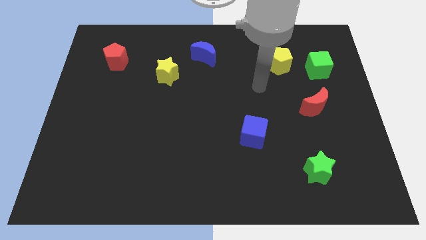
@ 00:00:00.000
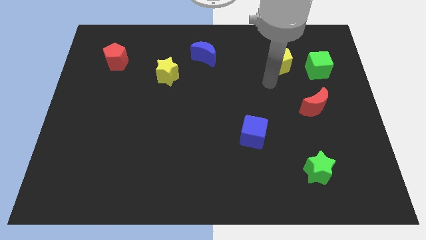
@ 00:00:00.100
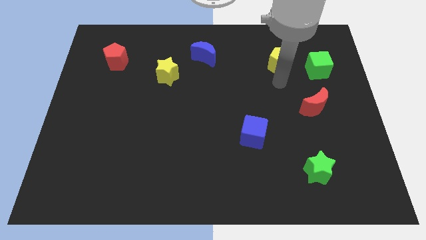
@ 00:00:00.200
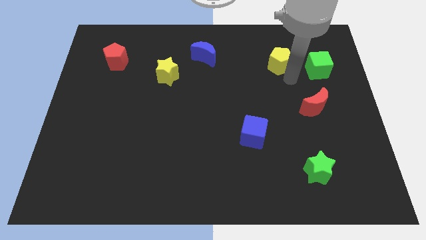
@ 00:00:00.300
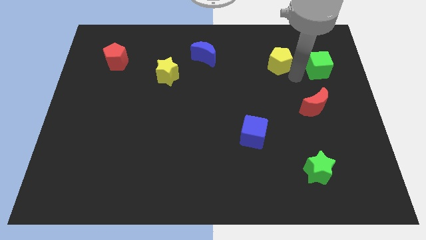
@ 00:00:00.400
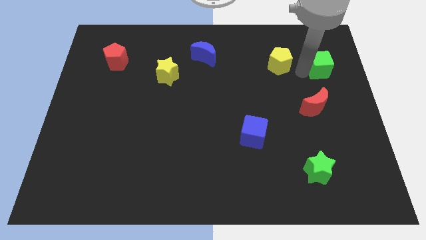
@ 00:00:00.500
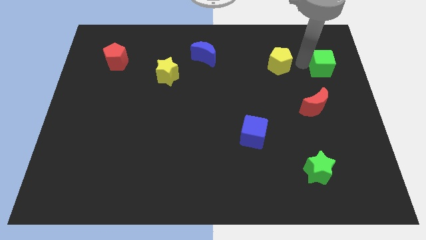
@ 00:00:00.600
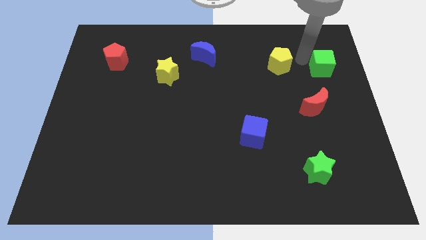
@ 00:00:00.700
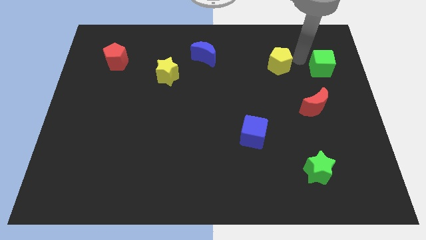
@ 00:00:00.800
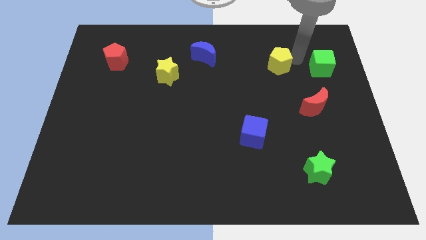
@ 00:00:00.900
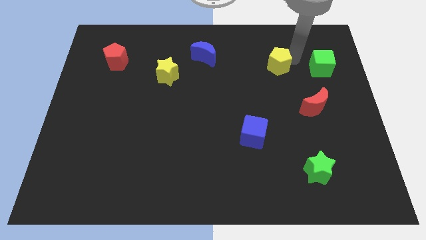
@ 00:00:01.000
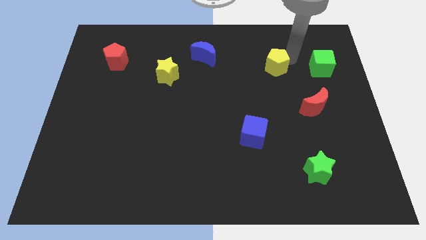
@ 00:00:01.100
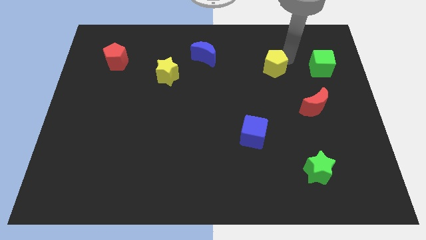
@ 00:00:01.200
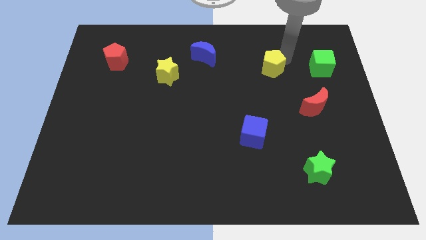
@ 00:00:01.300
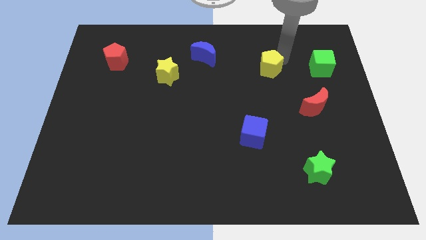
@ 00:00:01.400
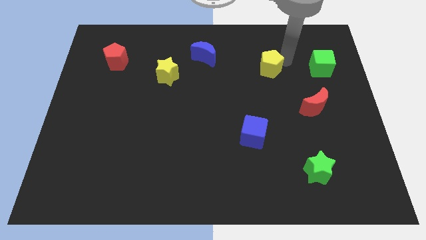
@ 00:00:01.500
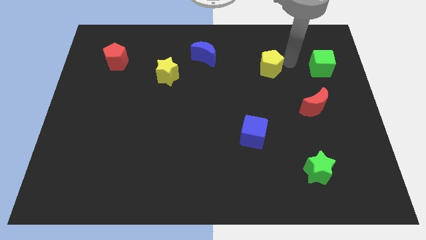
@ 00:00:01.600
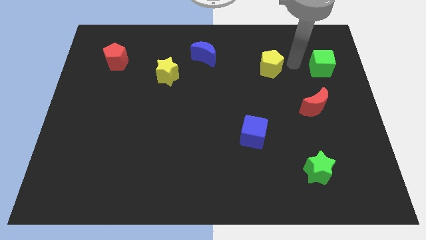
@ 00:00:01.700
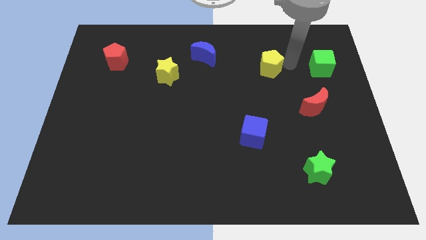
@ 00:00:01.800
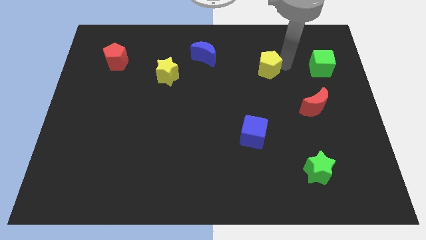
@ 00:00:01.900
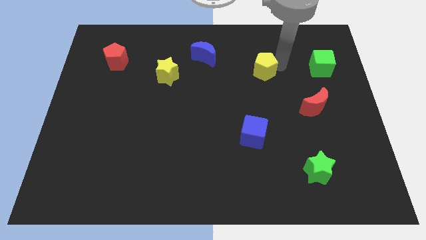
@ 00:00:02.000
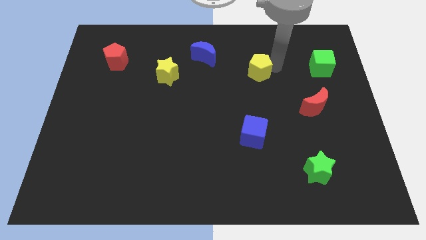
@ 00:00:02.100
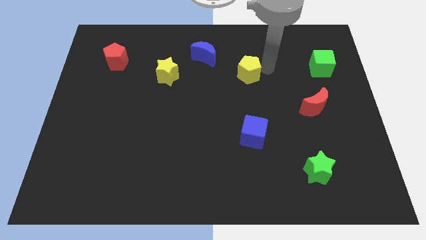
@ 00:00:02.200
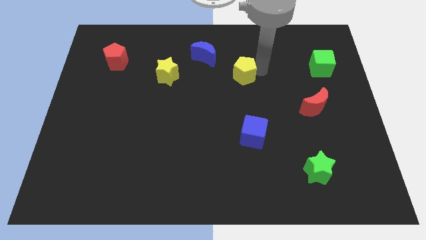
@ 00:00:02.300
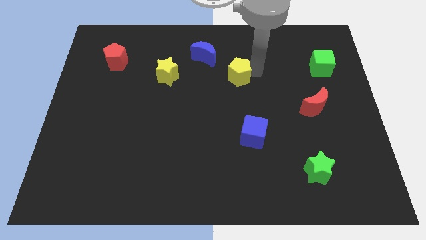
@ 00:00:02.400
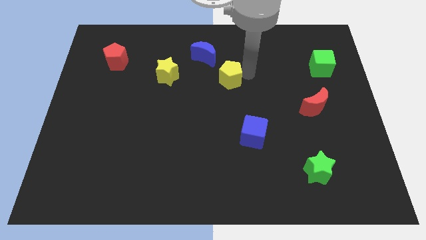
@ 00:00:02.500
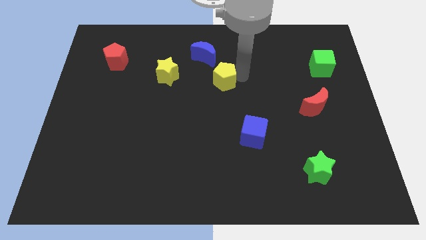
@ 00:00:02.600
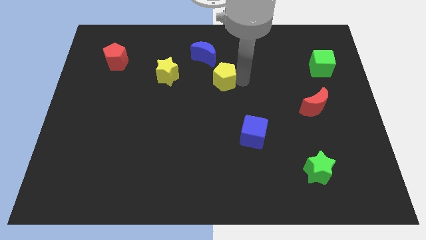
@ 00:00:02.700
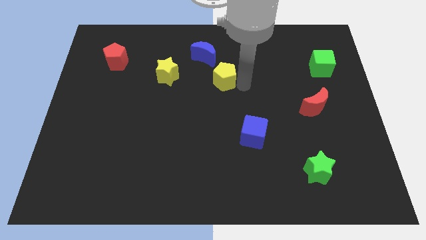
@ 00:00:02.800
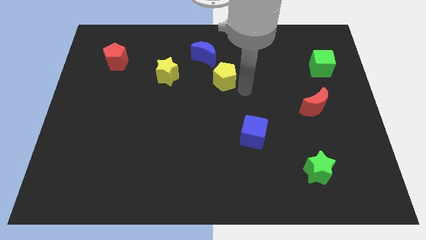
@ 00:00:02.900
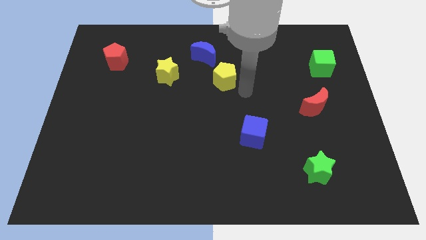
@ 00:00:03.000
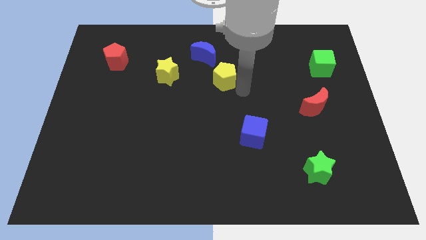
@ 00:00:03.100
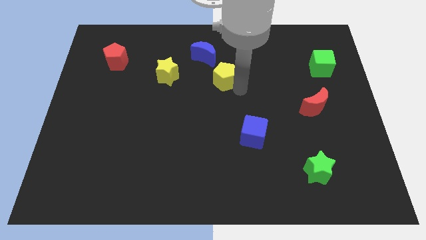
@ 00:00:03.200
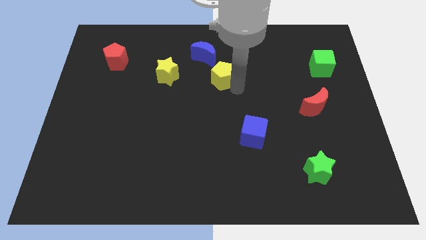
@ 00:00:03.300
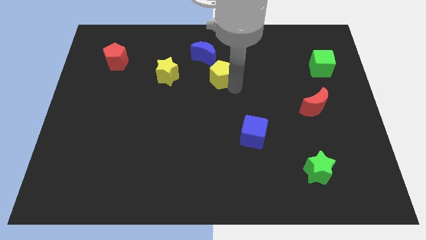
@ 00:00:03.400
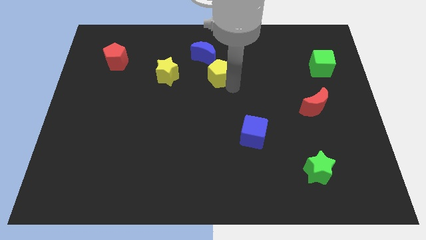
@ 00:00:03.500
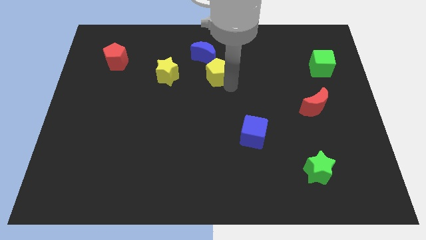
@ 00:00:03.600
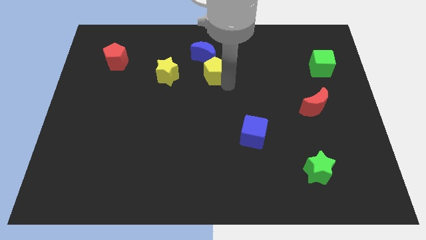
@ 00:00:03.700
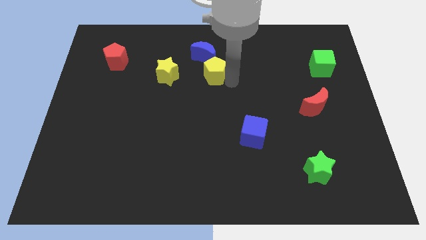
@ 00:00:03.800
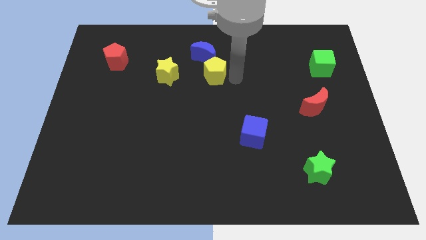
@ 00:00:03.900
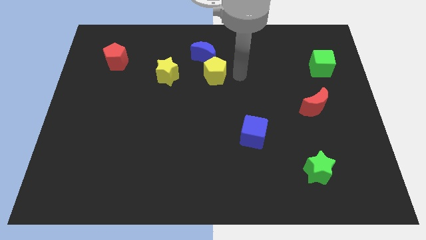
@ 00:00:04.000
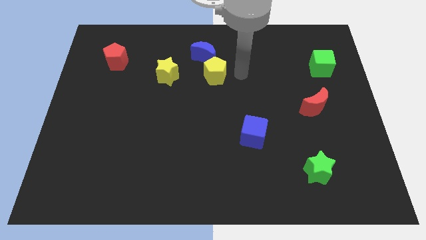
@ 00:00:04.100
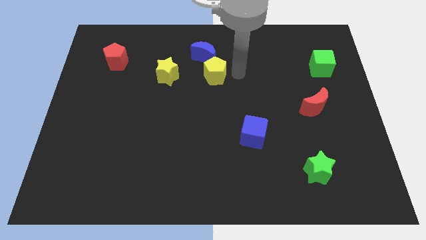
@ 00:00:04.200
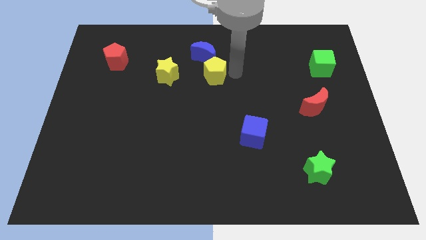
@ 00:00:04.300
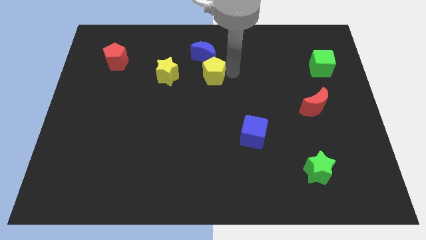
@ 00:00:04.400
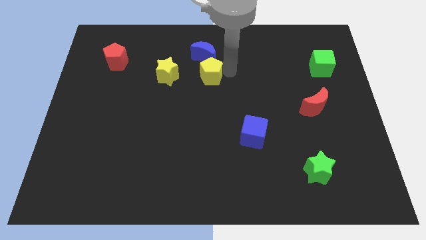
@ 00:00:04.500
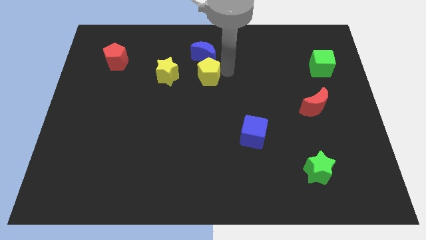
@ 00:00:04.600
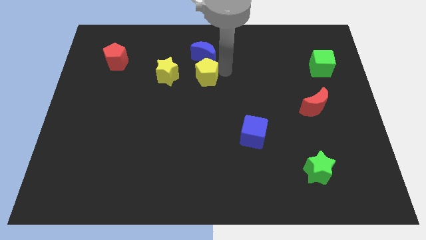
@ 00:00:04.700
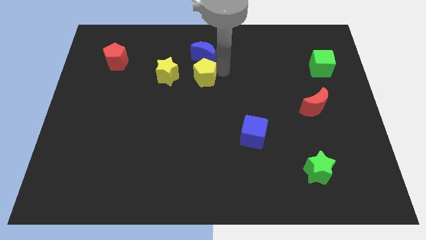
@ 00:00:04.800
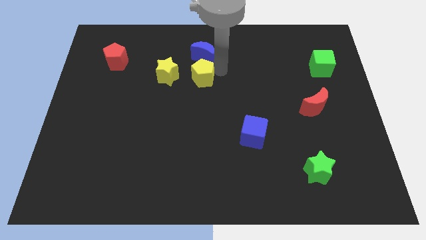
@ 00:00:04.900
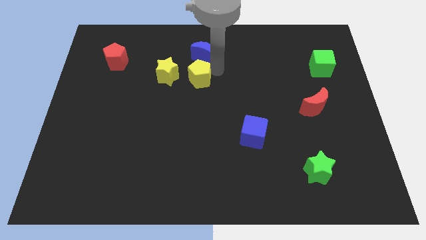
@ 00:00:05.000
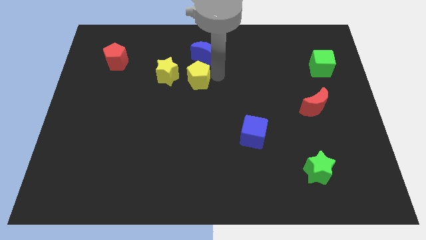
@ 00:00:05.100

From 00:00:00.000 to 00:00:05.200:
slide the yellow pentagon to the left

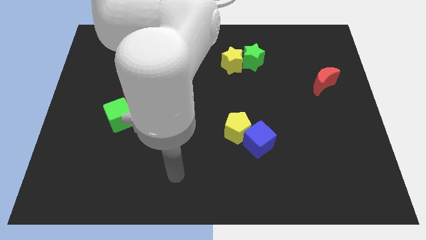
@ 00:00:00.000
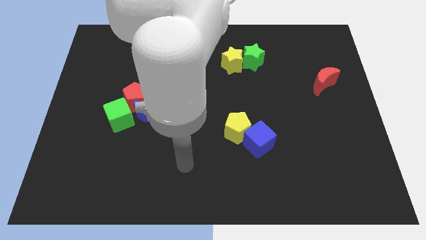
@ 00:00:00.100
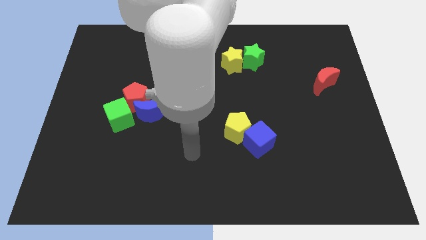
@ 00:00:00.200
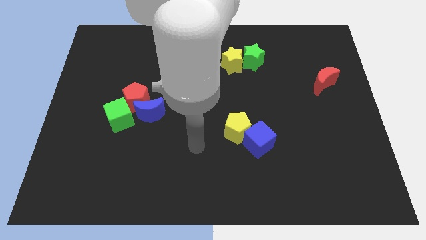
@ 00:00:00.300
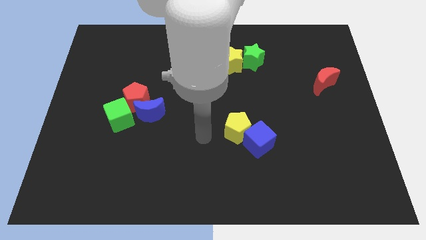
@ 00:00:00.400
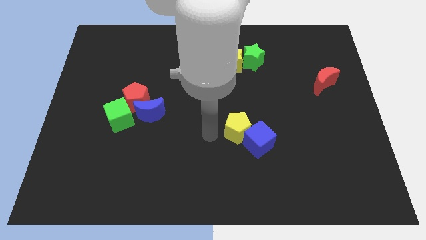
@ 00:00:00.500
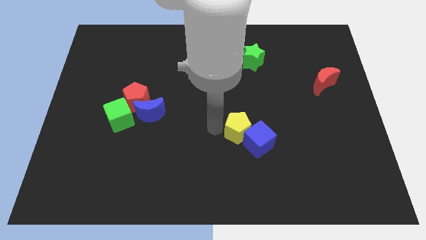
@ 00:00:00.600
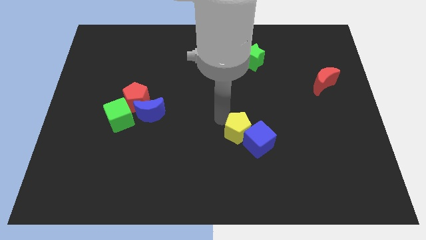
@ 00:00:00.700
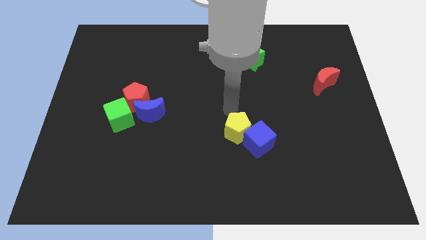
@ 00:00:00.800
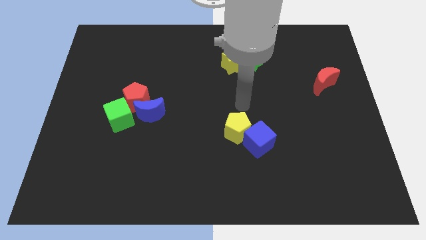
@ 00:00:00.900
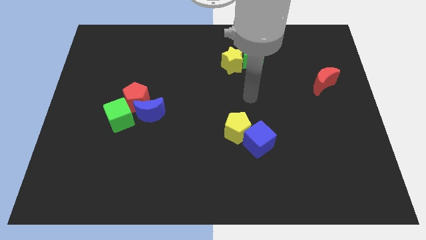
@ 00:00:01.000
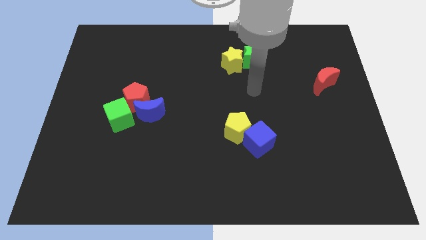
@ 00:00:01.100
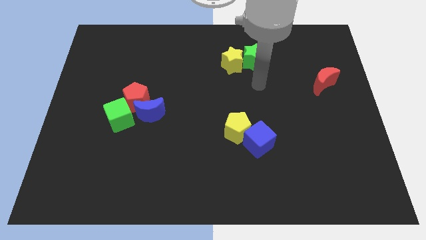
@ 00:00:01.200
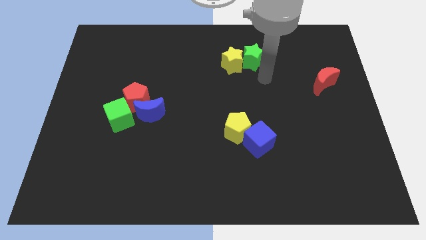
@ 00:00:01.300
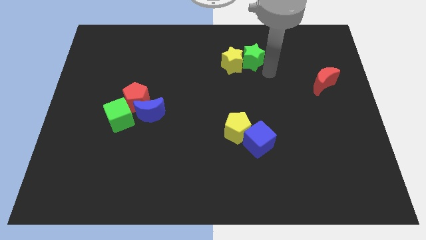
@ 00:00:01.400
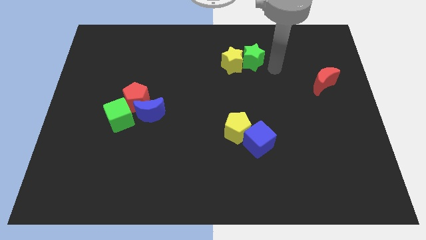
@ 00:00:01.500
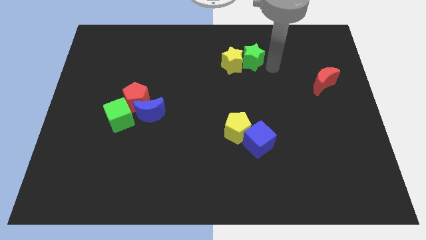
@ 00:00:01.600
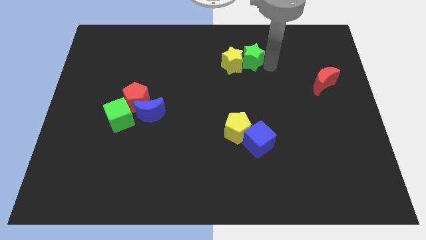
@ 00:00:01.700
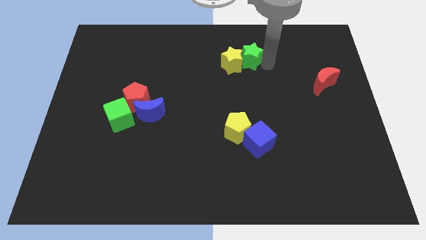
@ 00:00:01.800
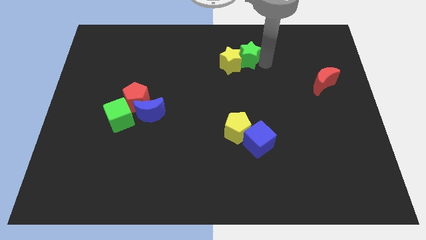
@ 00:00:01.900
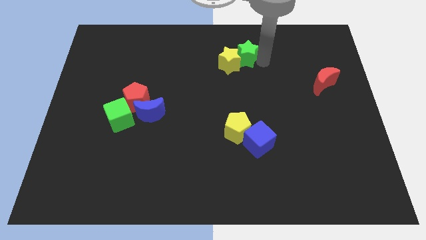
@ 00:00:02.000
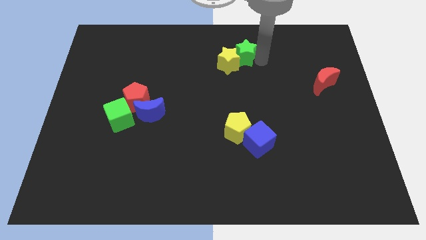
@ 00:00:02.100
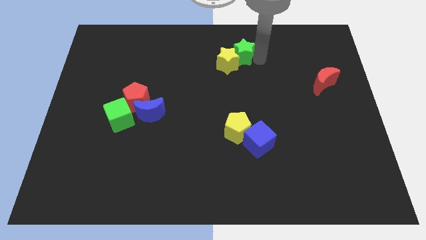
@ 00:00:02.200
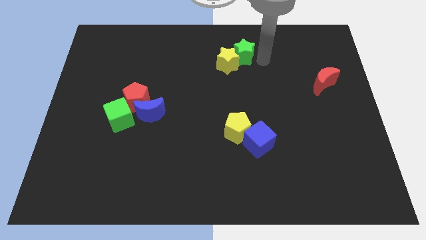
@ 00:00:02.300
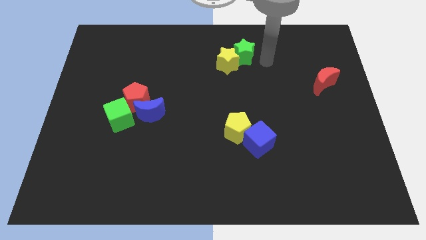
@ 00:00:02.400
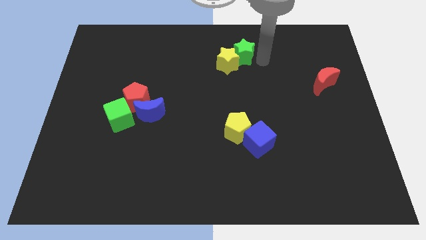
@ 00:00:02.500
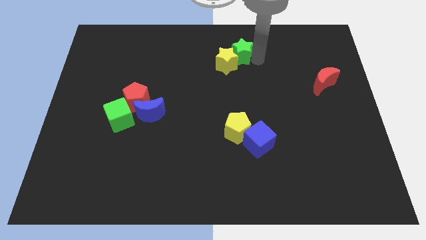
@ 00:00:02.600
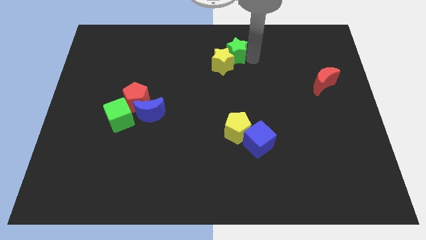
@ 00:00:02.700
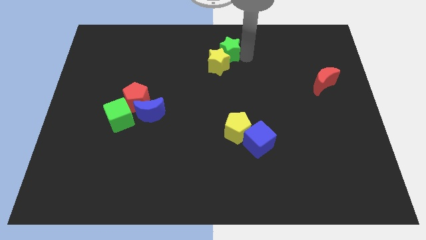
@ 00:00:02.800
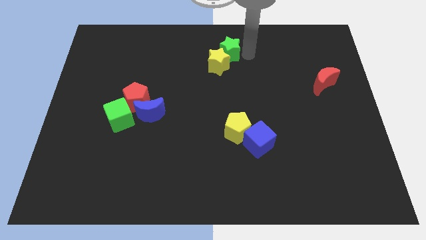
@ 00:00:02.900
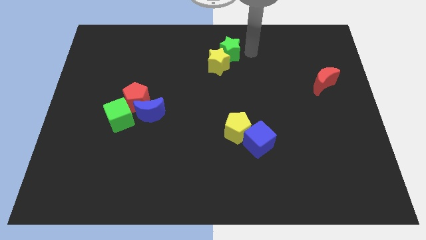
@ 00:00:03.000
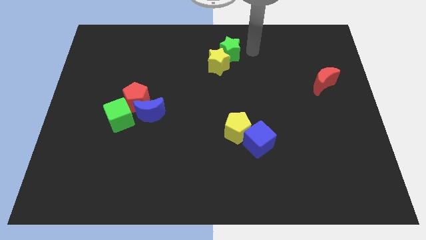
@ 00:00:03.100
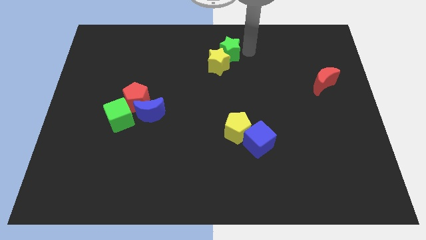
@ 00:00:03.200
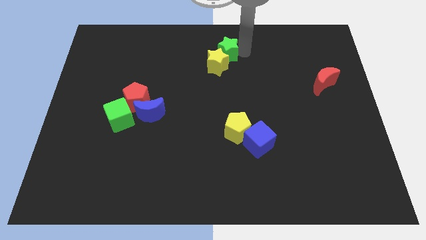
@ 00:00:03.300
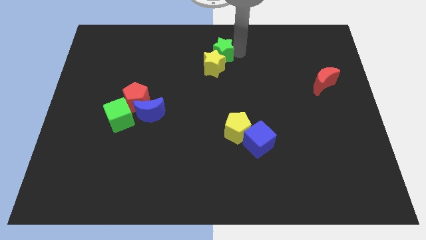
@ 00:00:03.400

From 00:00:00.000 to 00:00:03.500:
move the green star slightly to the left
